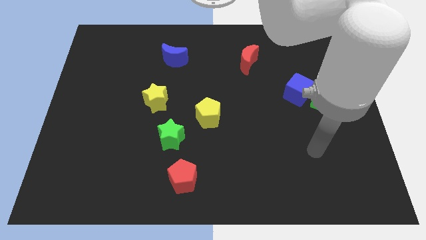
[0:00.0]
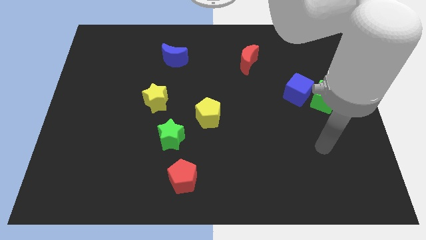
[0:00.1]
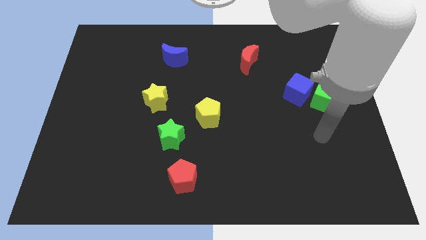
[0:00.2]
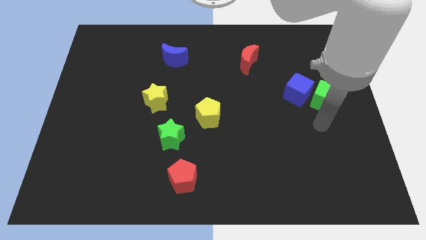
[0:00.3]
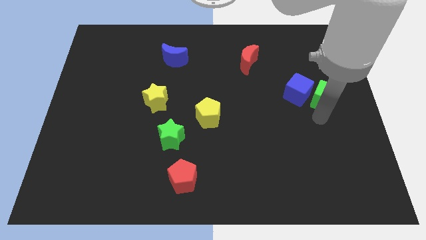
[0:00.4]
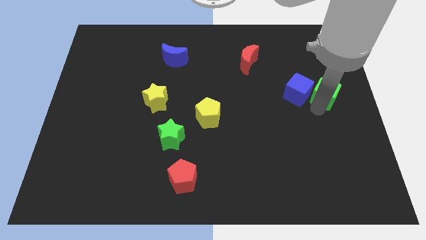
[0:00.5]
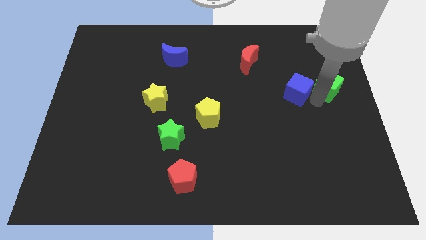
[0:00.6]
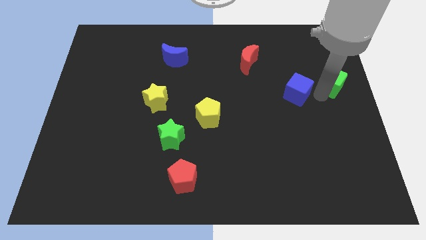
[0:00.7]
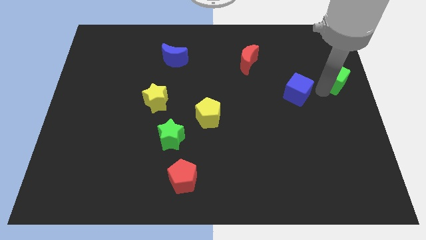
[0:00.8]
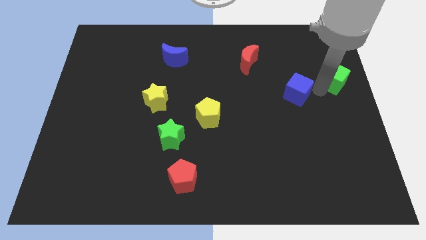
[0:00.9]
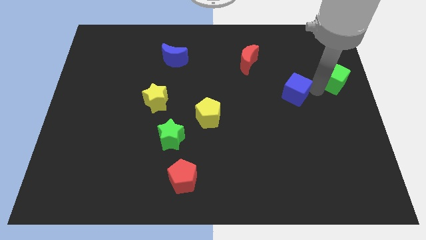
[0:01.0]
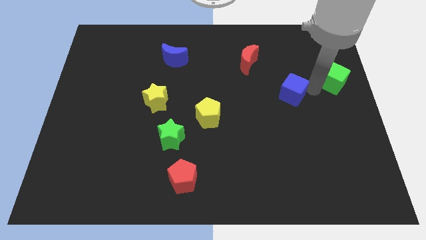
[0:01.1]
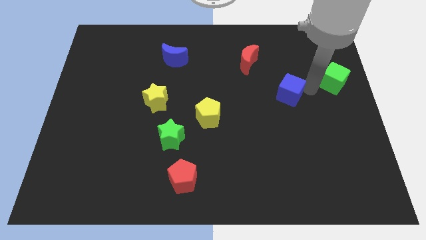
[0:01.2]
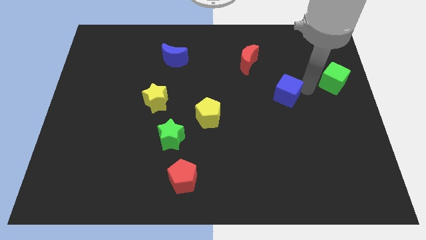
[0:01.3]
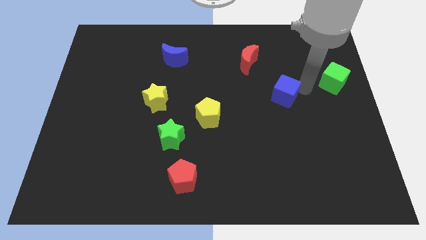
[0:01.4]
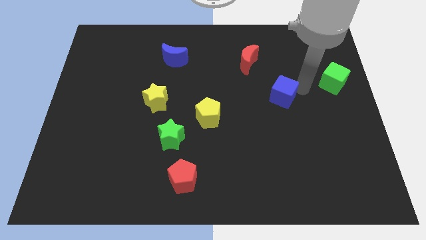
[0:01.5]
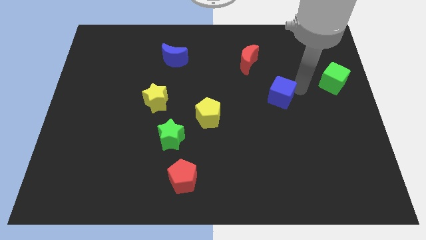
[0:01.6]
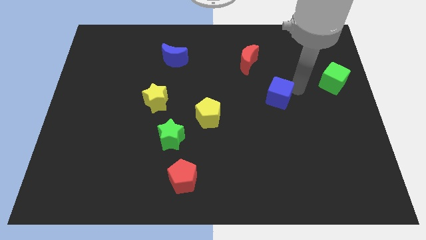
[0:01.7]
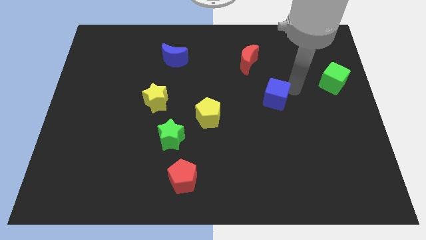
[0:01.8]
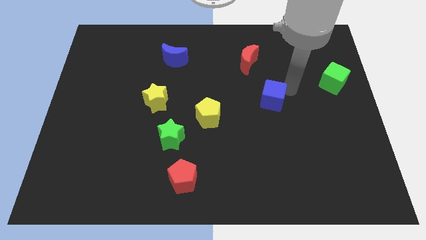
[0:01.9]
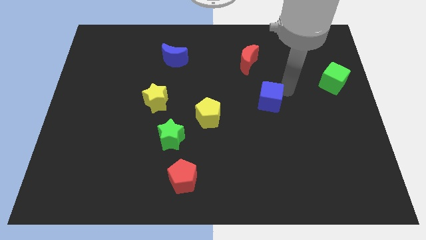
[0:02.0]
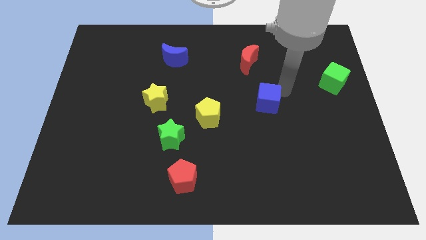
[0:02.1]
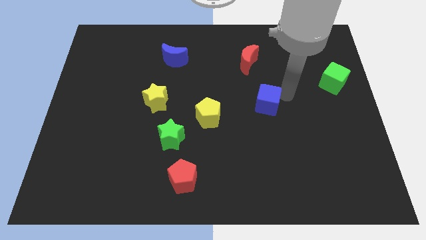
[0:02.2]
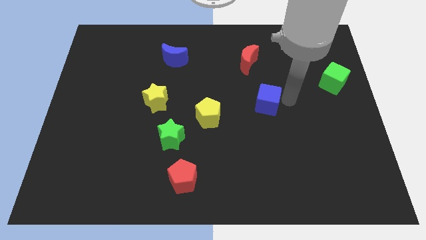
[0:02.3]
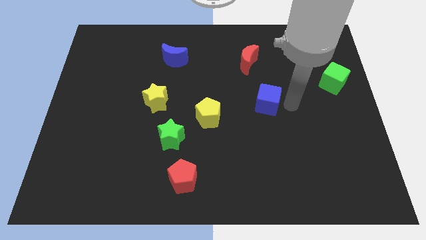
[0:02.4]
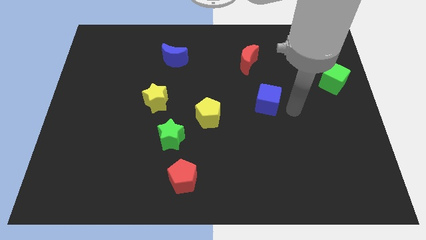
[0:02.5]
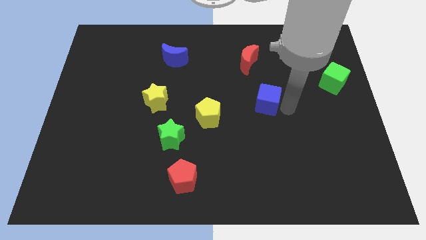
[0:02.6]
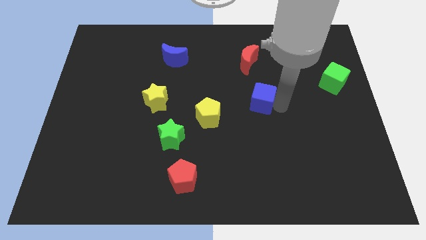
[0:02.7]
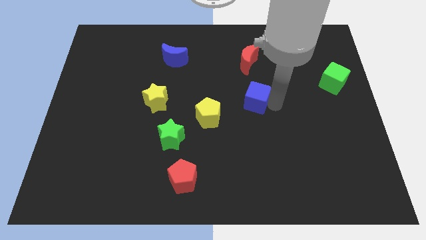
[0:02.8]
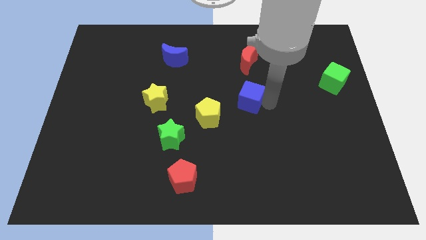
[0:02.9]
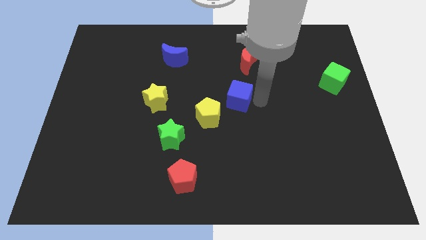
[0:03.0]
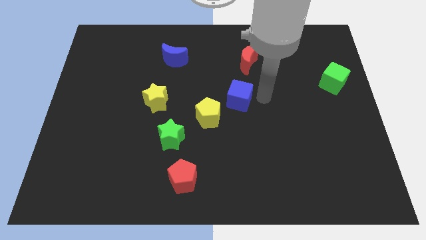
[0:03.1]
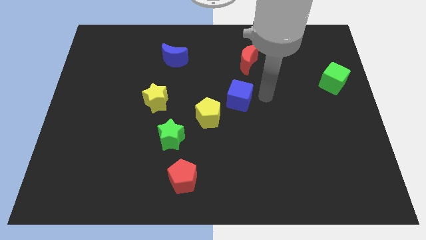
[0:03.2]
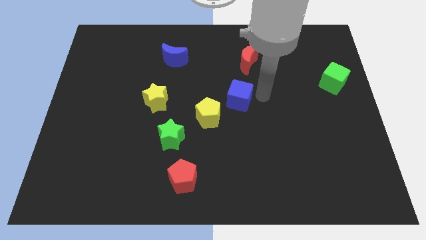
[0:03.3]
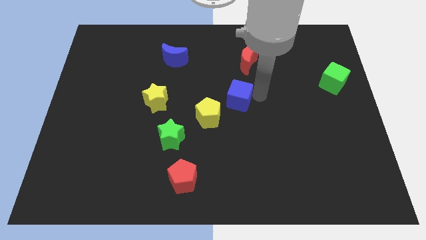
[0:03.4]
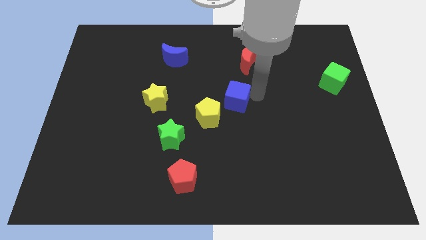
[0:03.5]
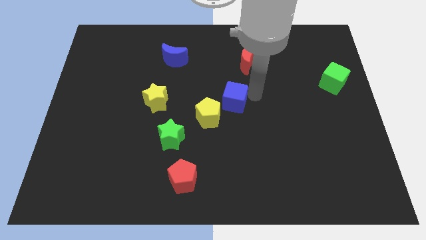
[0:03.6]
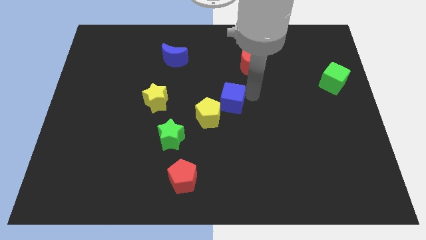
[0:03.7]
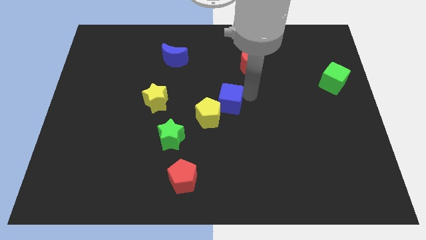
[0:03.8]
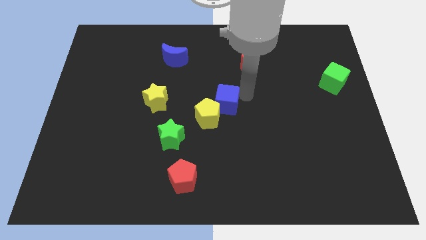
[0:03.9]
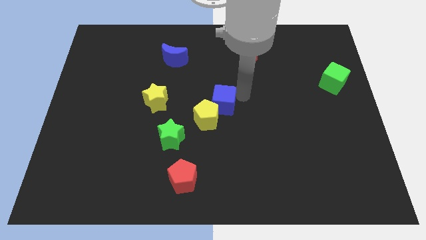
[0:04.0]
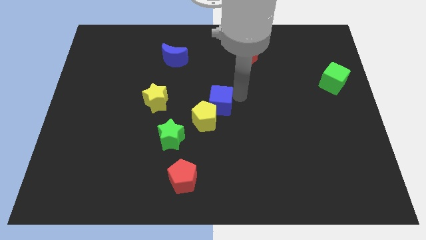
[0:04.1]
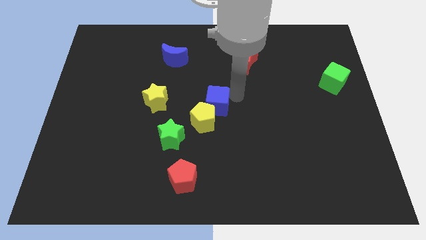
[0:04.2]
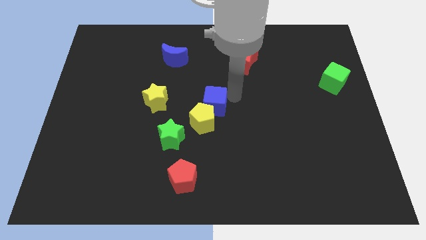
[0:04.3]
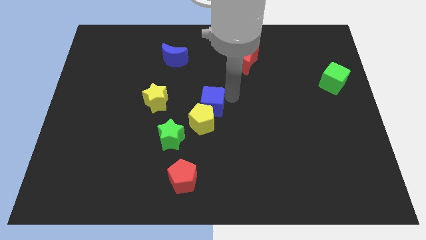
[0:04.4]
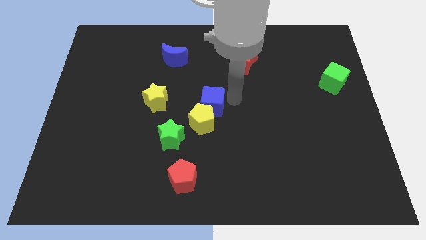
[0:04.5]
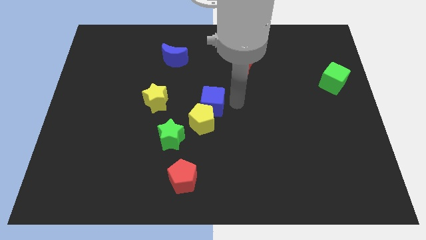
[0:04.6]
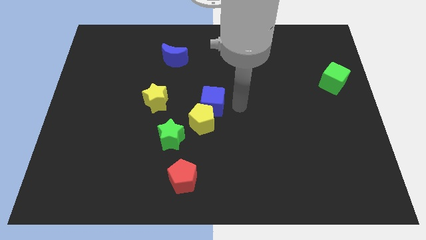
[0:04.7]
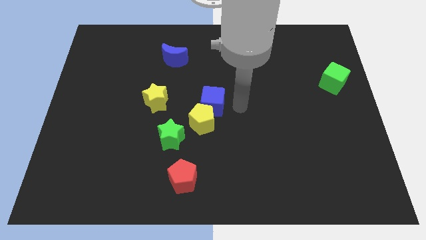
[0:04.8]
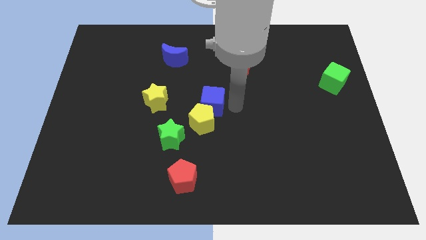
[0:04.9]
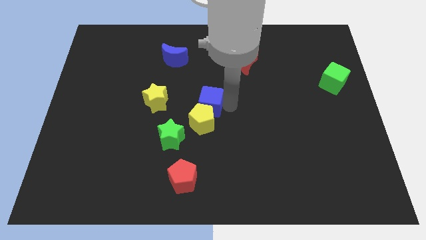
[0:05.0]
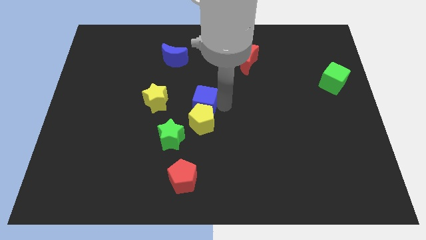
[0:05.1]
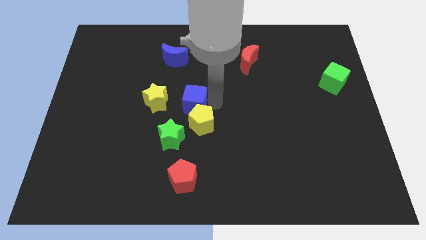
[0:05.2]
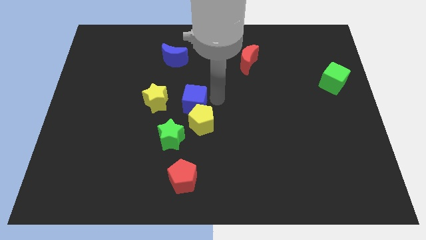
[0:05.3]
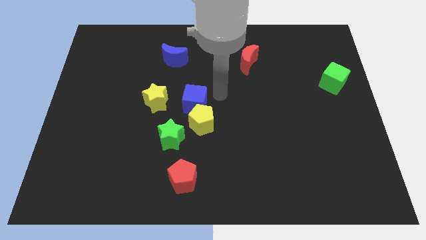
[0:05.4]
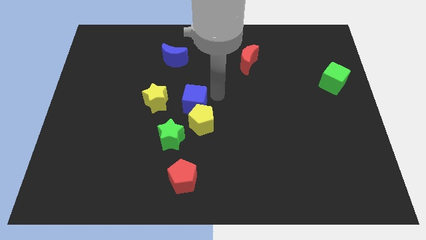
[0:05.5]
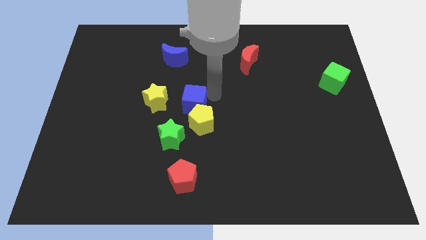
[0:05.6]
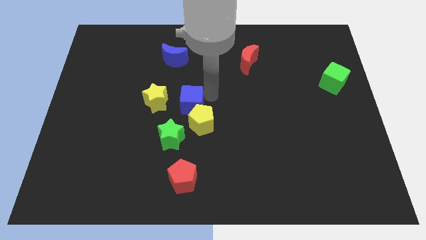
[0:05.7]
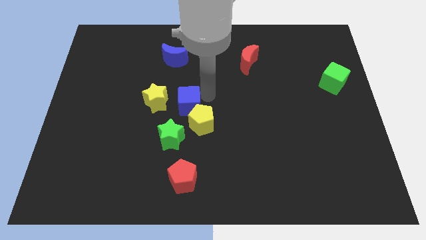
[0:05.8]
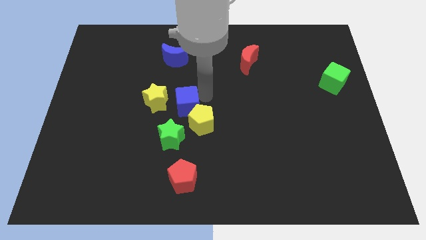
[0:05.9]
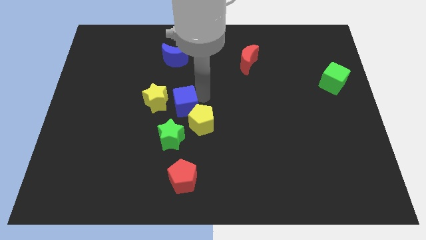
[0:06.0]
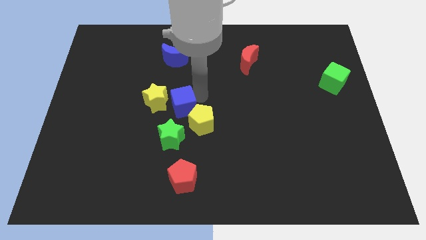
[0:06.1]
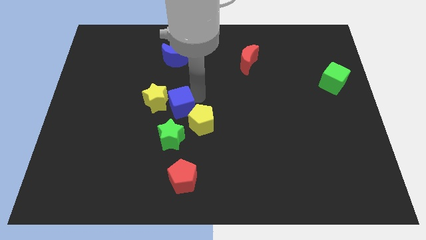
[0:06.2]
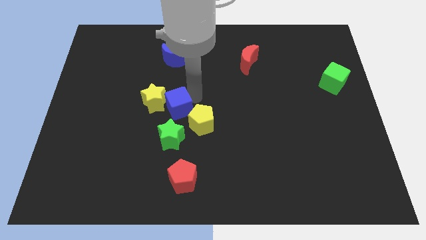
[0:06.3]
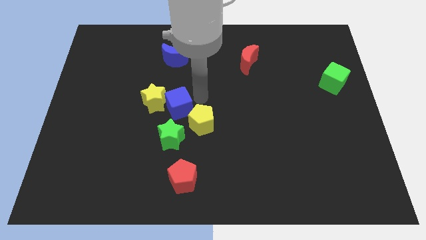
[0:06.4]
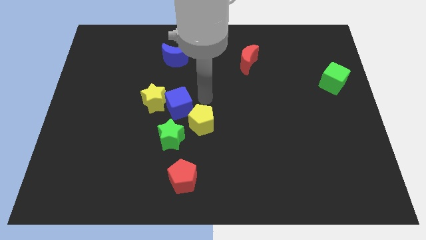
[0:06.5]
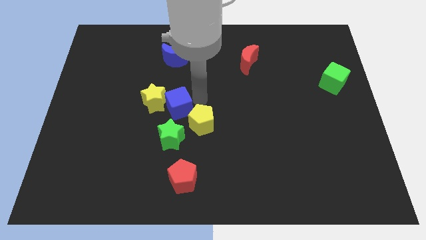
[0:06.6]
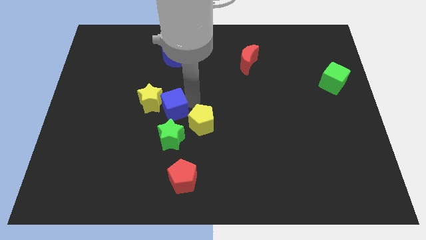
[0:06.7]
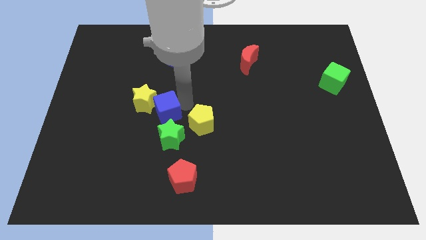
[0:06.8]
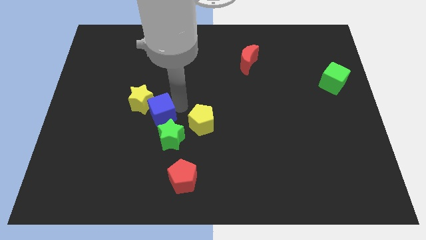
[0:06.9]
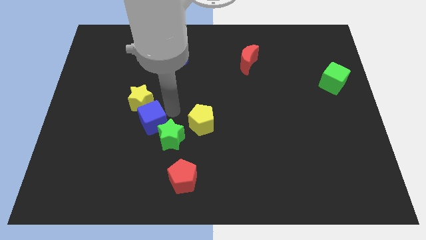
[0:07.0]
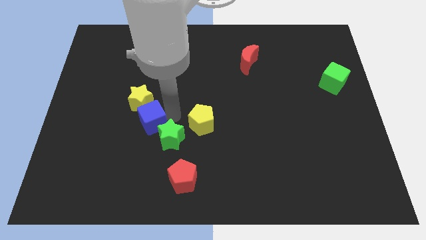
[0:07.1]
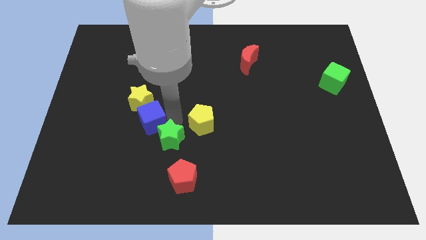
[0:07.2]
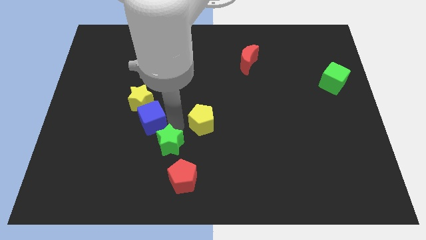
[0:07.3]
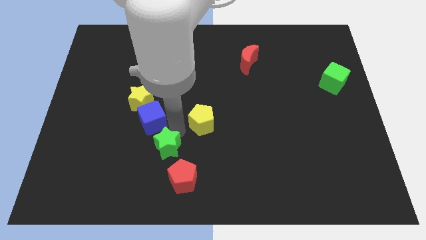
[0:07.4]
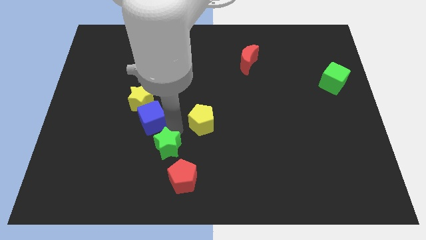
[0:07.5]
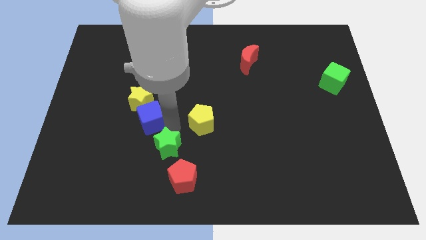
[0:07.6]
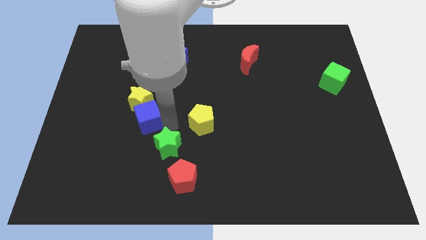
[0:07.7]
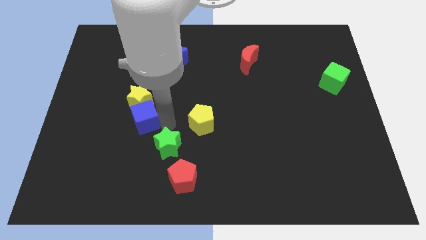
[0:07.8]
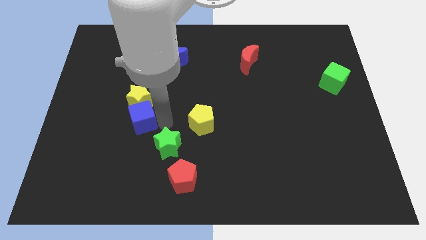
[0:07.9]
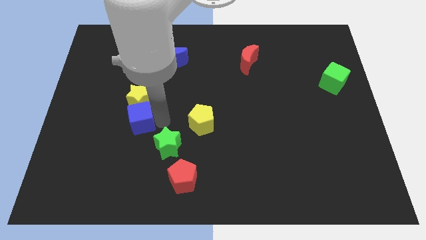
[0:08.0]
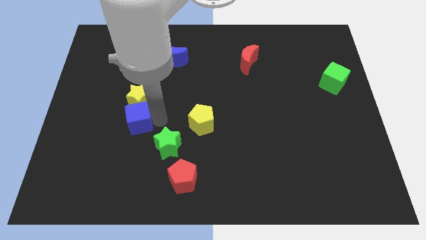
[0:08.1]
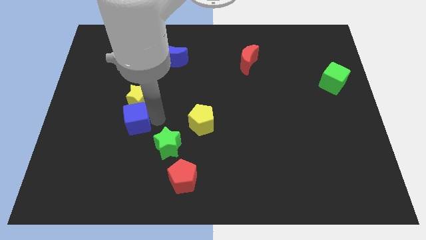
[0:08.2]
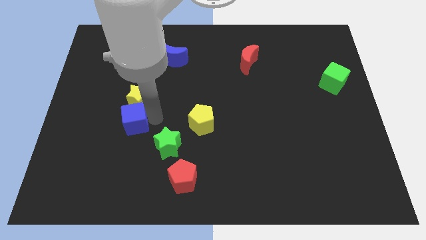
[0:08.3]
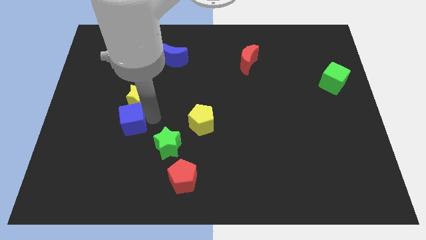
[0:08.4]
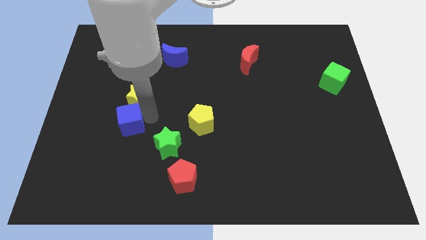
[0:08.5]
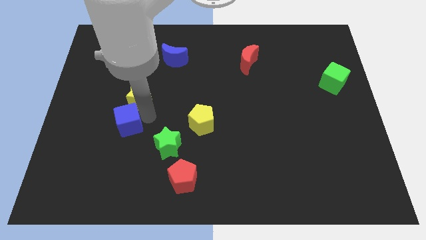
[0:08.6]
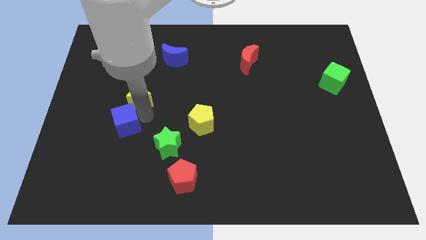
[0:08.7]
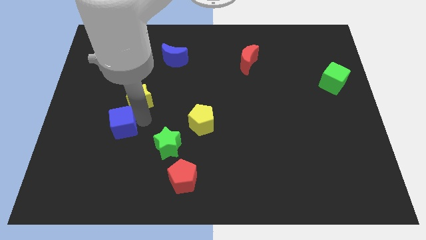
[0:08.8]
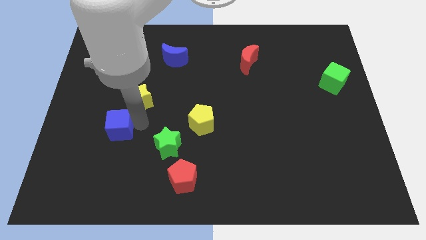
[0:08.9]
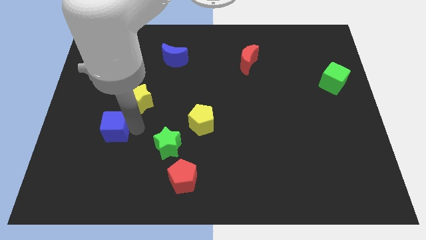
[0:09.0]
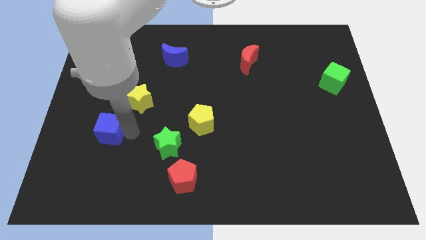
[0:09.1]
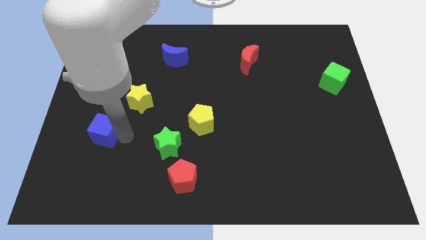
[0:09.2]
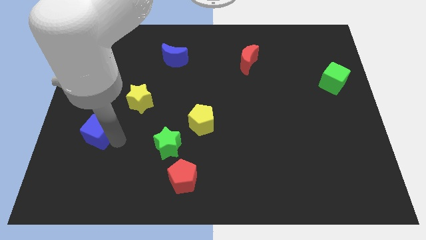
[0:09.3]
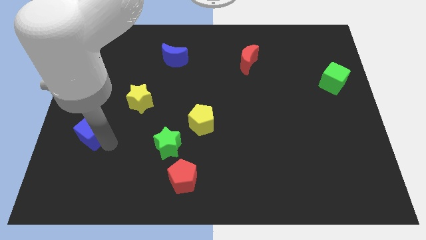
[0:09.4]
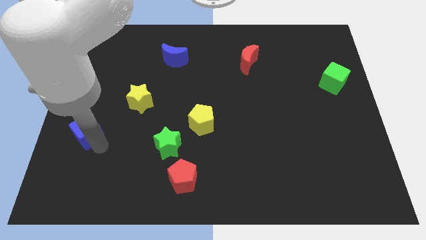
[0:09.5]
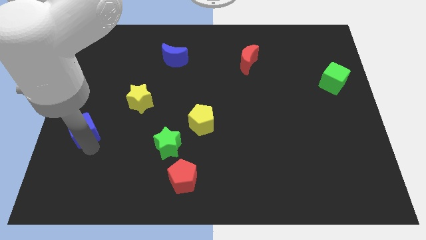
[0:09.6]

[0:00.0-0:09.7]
put the blue cube to the left side
